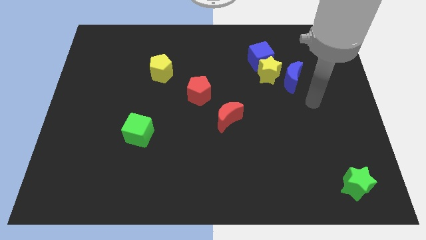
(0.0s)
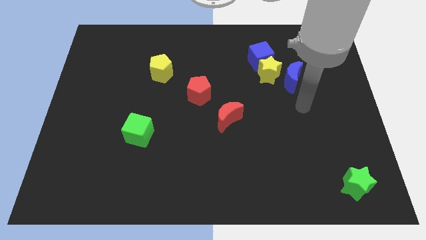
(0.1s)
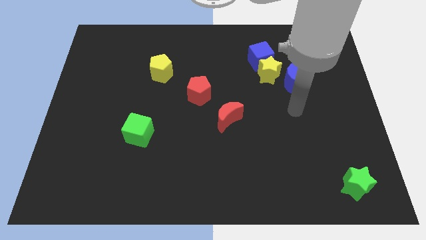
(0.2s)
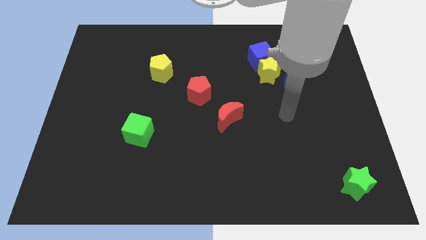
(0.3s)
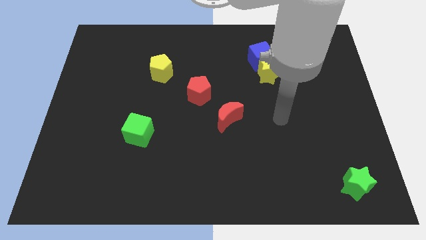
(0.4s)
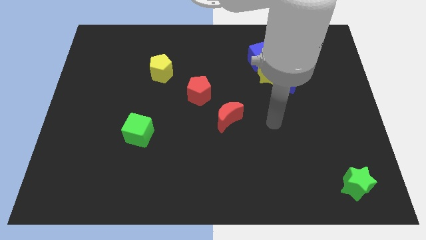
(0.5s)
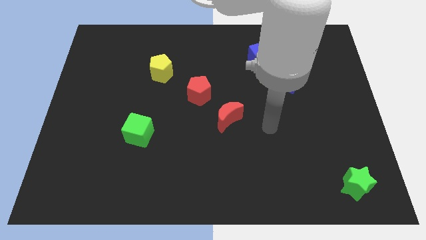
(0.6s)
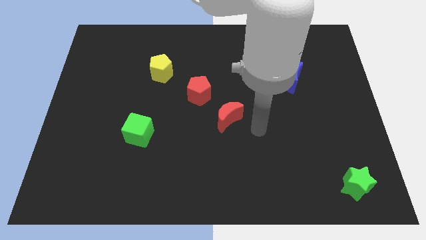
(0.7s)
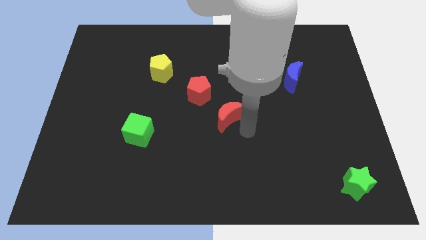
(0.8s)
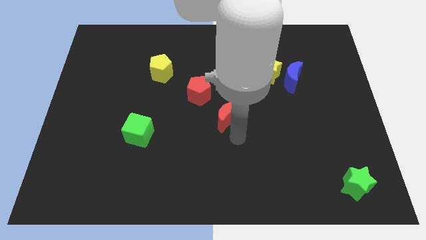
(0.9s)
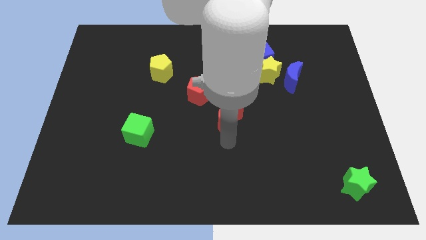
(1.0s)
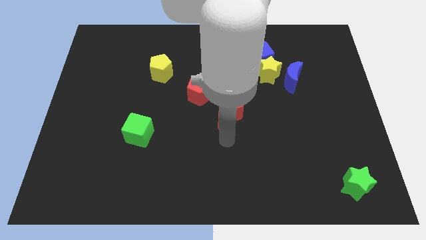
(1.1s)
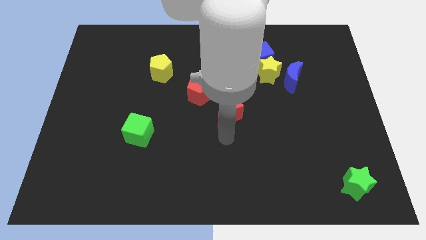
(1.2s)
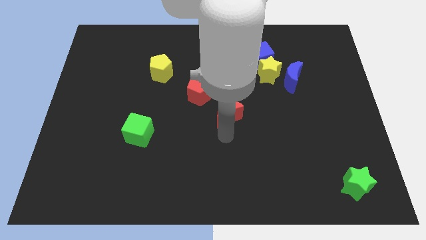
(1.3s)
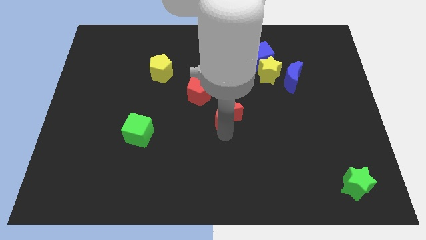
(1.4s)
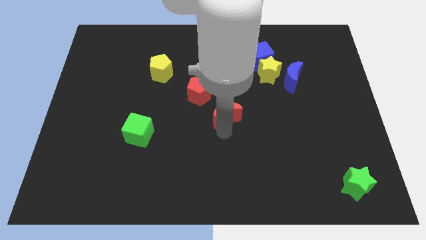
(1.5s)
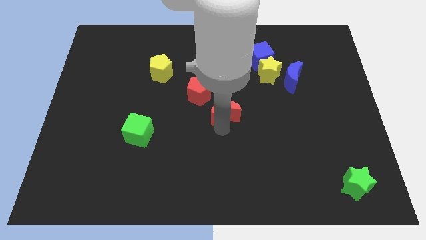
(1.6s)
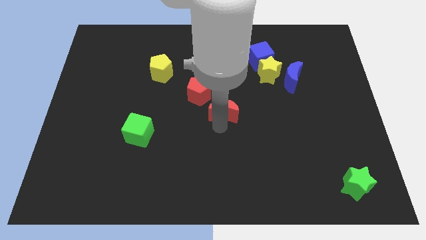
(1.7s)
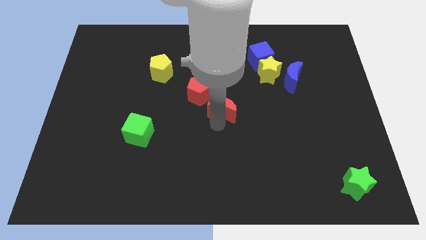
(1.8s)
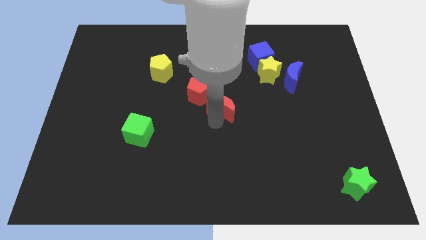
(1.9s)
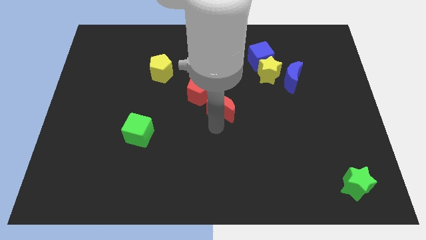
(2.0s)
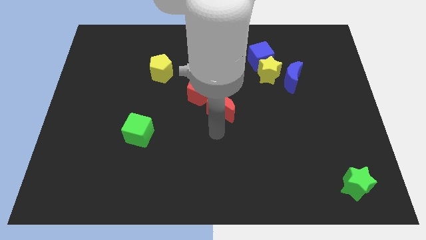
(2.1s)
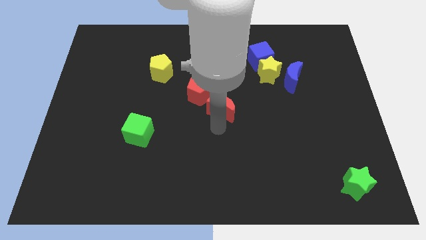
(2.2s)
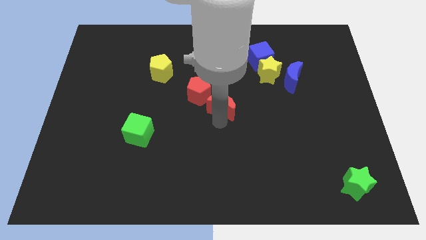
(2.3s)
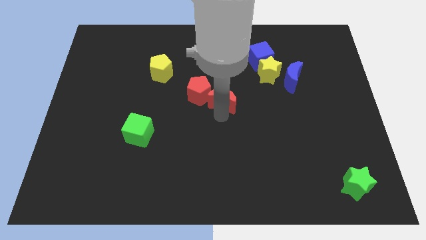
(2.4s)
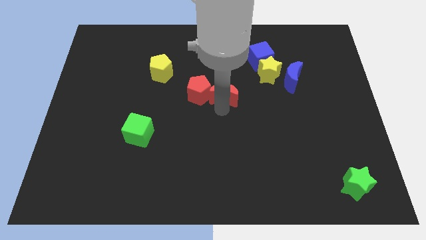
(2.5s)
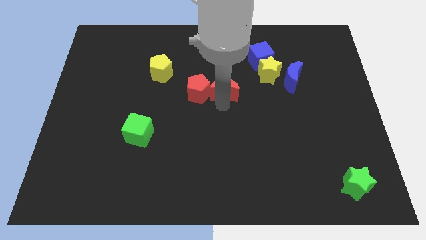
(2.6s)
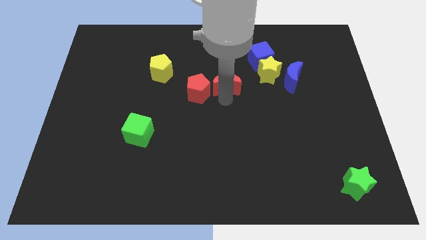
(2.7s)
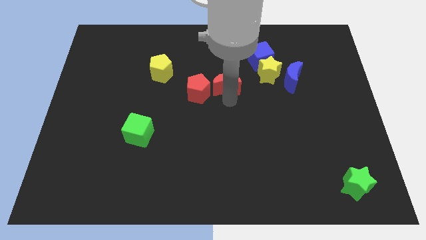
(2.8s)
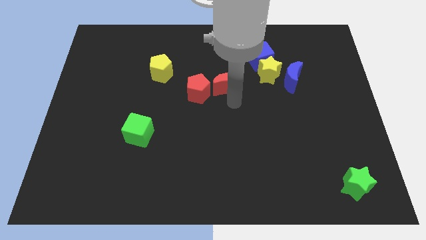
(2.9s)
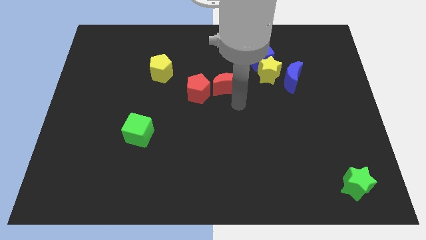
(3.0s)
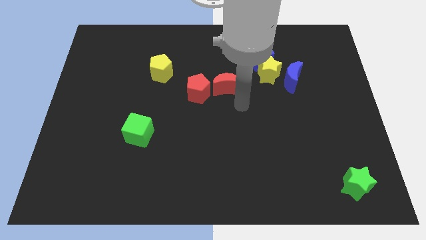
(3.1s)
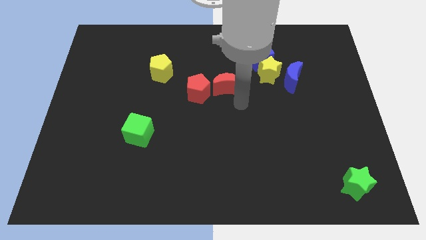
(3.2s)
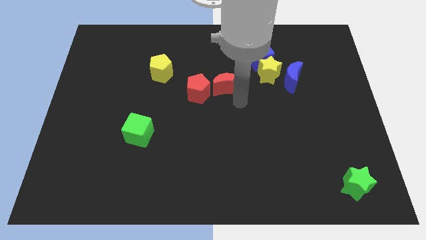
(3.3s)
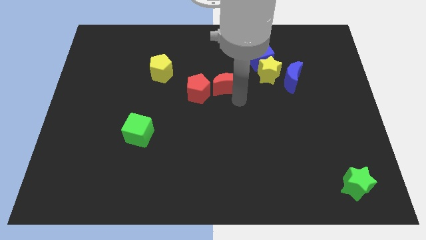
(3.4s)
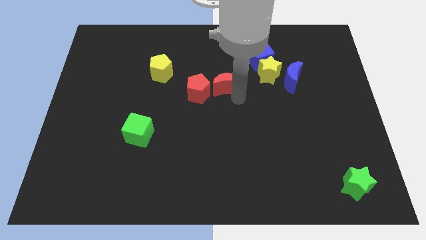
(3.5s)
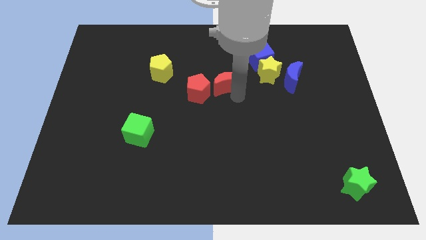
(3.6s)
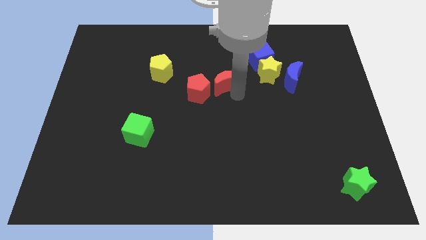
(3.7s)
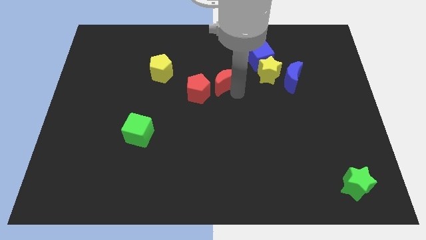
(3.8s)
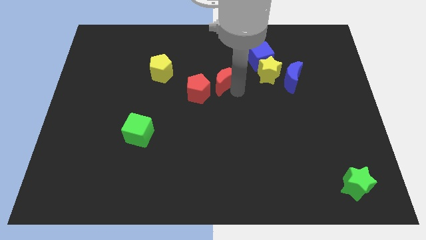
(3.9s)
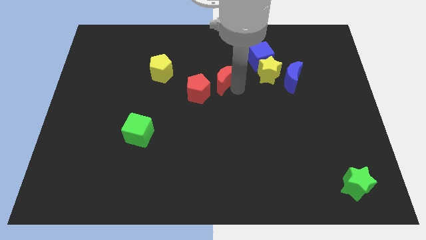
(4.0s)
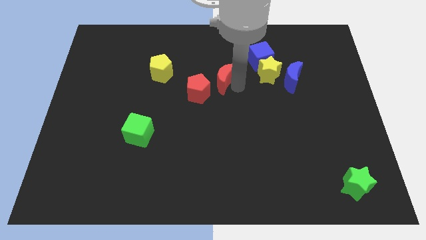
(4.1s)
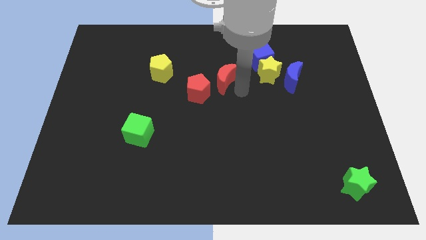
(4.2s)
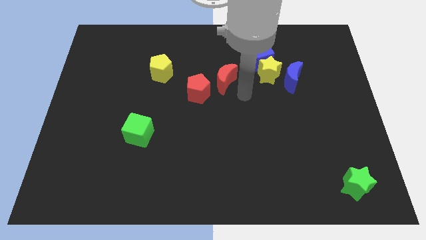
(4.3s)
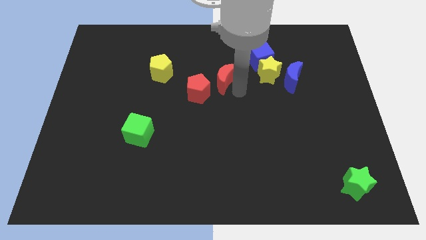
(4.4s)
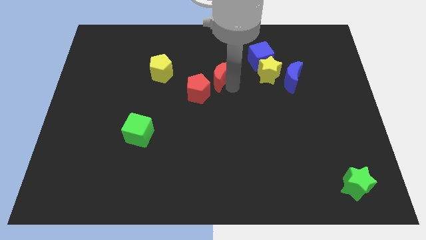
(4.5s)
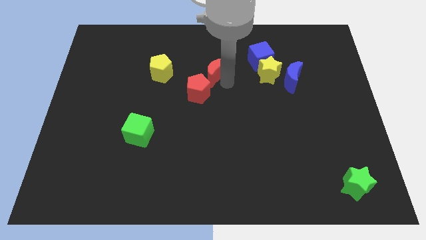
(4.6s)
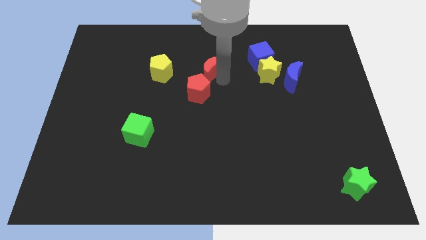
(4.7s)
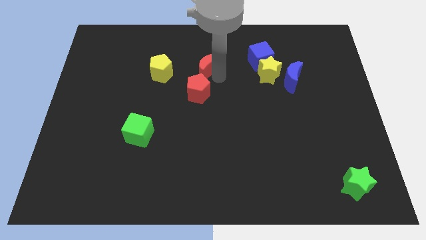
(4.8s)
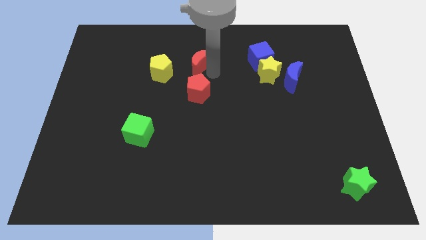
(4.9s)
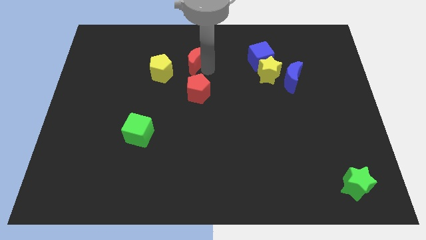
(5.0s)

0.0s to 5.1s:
move the red moon diagonally up and to the right of the yellow pentagon

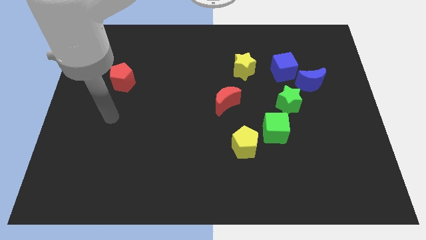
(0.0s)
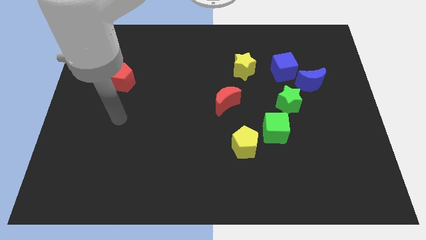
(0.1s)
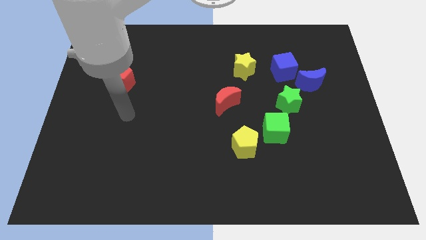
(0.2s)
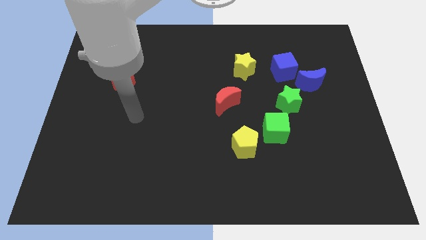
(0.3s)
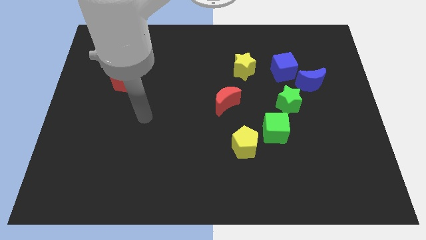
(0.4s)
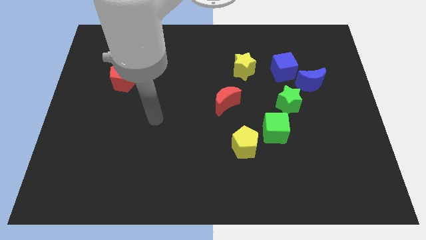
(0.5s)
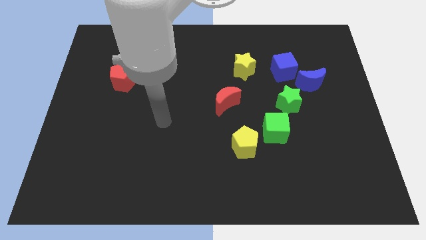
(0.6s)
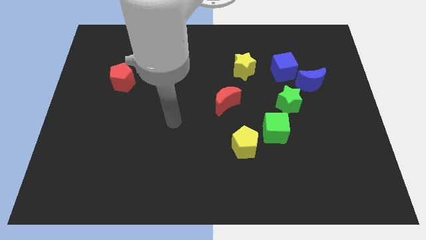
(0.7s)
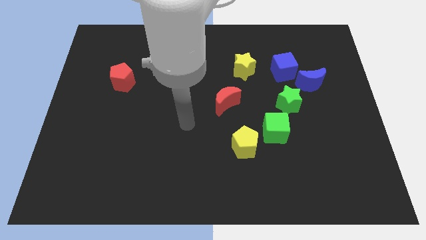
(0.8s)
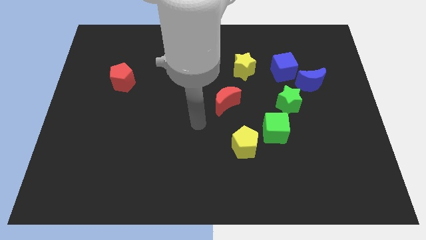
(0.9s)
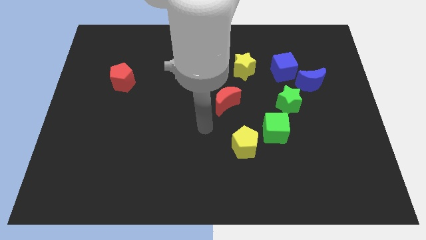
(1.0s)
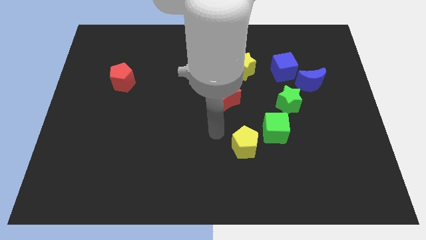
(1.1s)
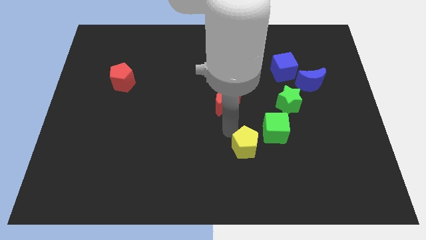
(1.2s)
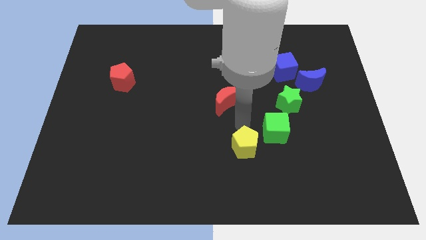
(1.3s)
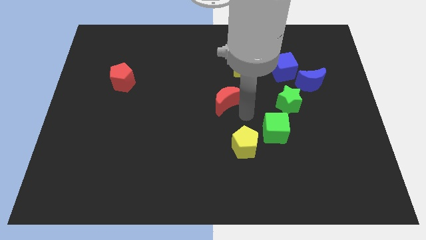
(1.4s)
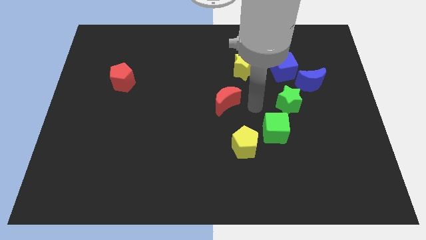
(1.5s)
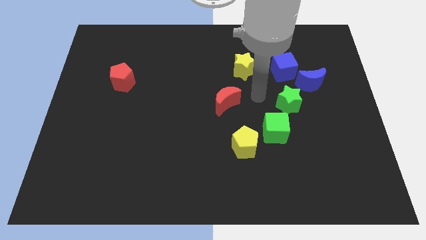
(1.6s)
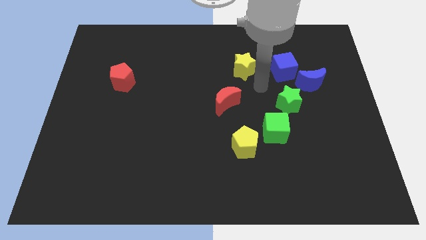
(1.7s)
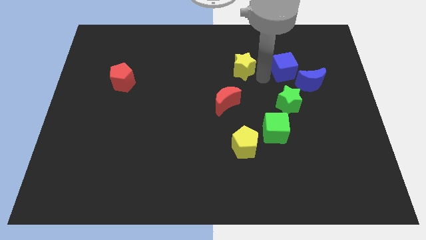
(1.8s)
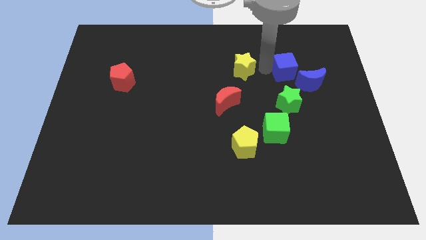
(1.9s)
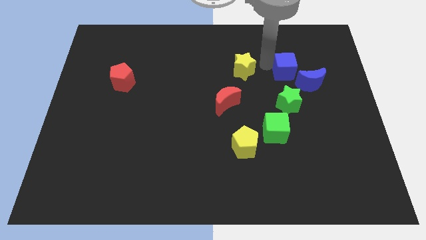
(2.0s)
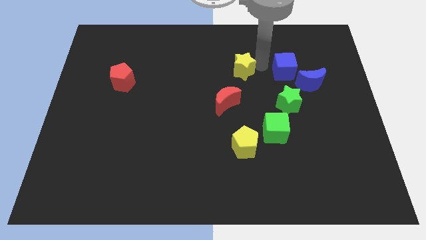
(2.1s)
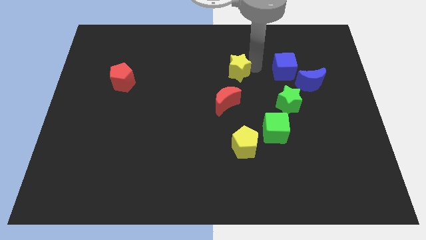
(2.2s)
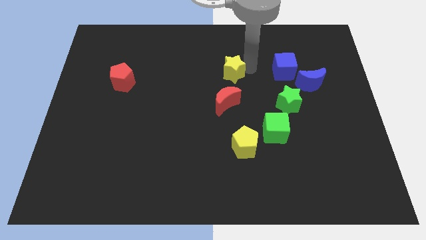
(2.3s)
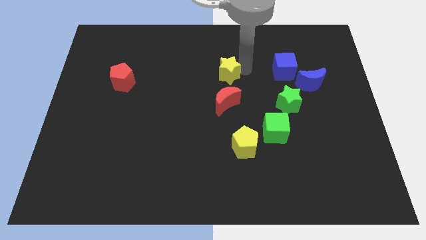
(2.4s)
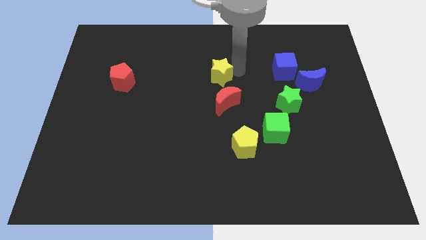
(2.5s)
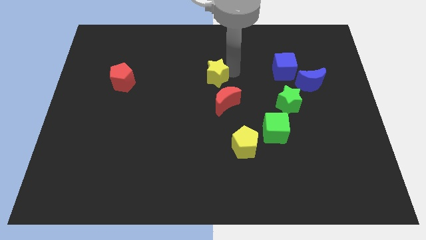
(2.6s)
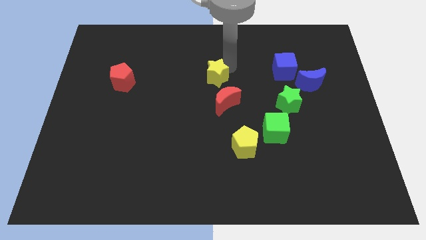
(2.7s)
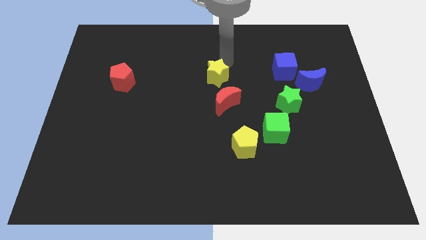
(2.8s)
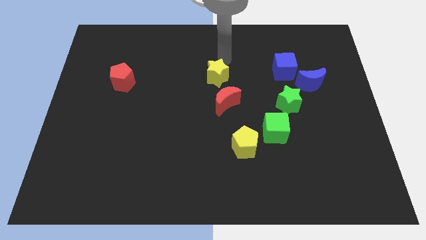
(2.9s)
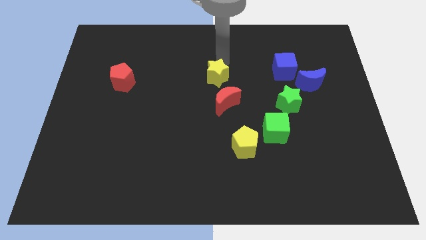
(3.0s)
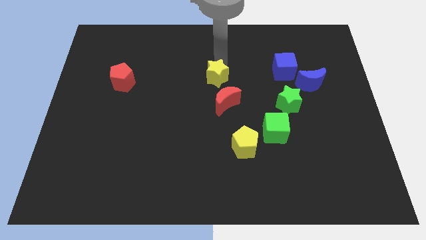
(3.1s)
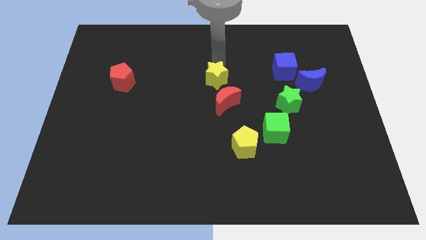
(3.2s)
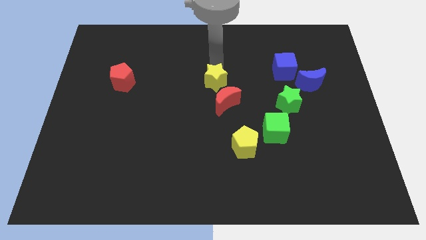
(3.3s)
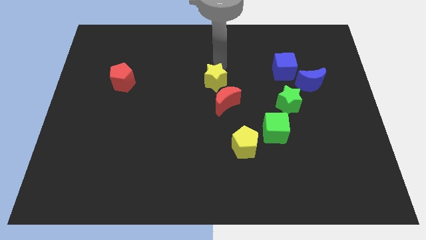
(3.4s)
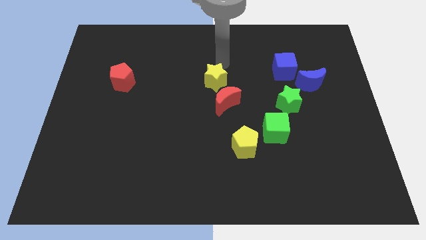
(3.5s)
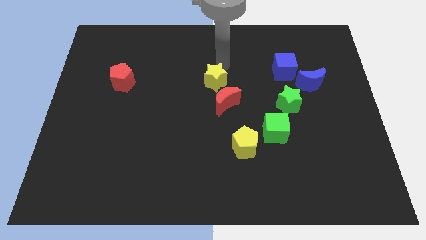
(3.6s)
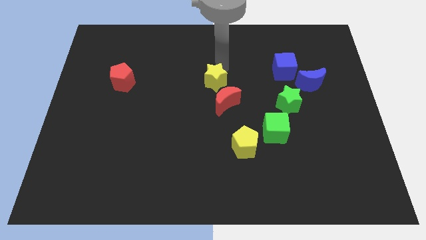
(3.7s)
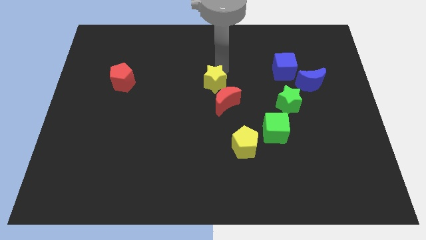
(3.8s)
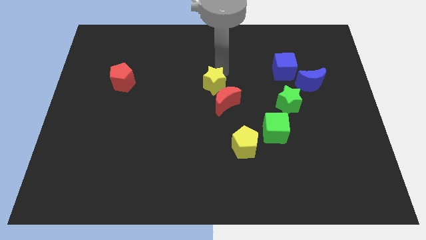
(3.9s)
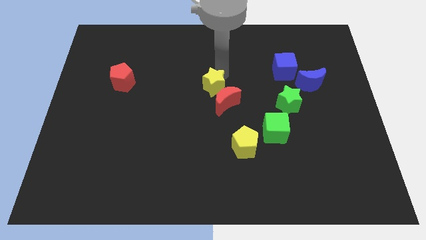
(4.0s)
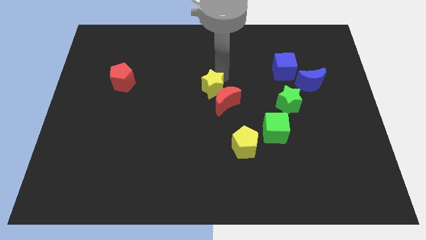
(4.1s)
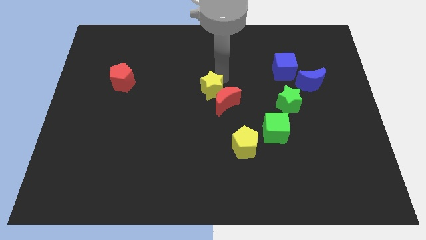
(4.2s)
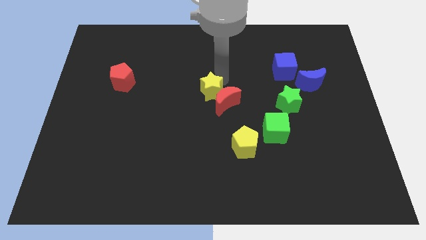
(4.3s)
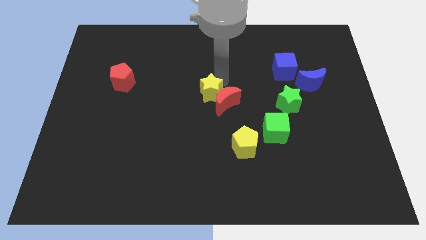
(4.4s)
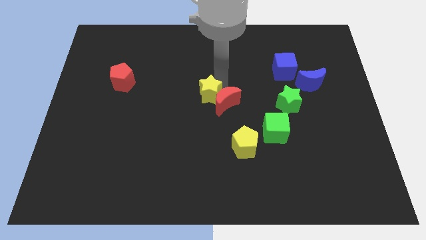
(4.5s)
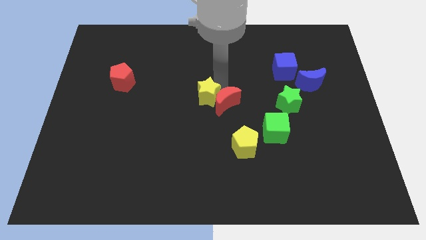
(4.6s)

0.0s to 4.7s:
push the yellow star to the bottom left side of the red moon
